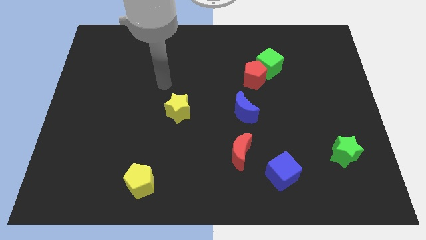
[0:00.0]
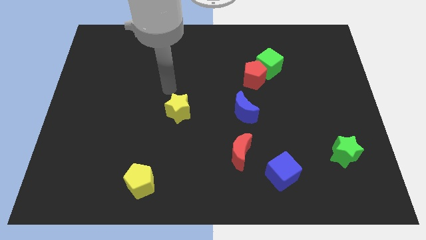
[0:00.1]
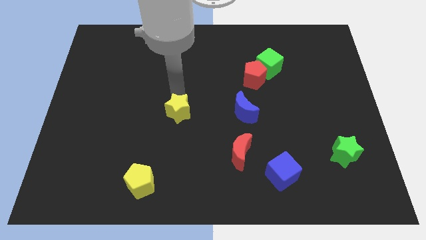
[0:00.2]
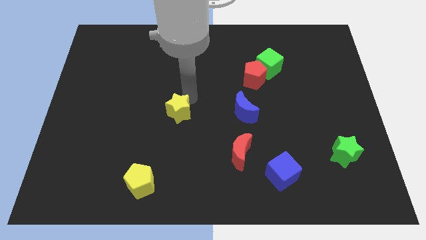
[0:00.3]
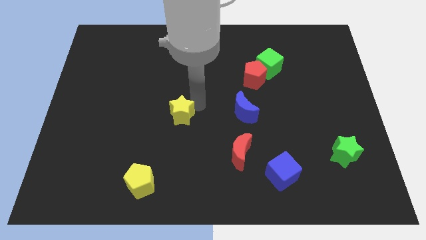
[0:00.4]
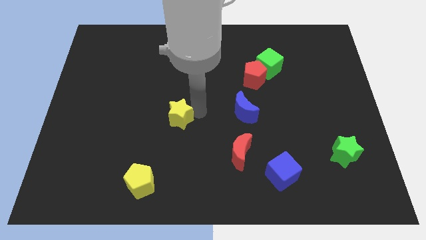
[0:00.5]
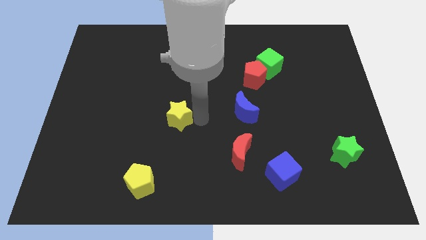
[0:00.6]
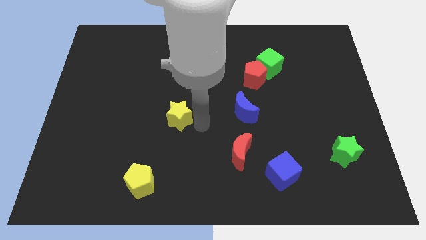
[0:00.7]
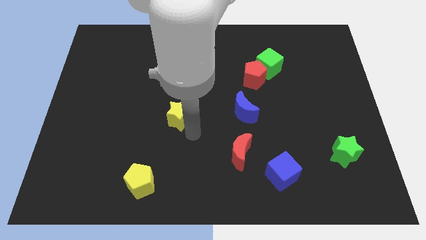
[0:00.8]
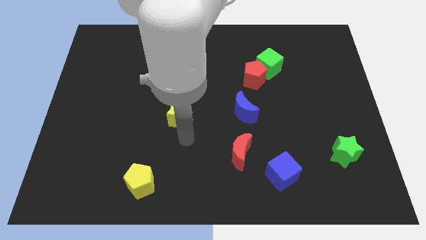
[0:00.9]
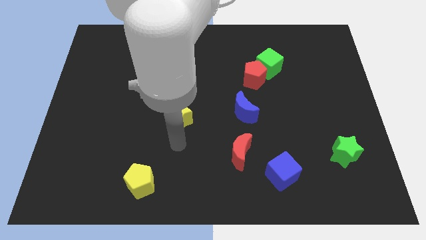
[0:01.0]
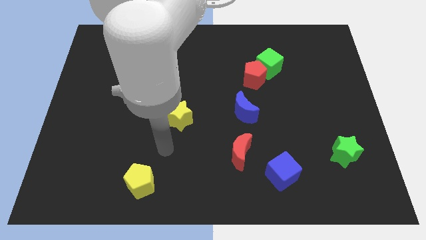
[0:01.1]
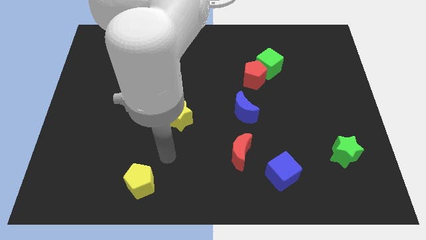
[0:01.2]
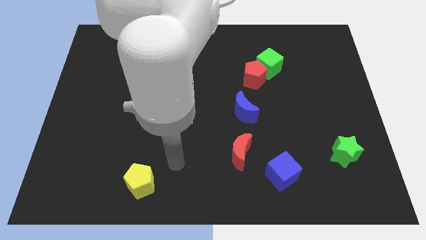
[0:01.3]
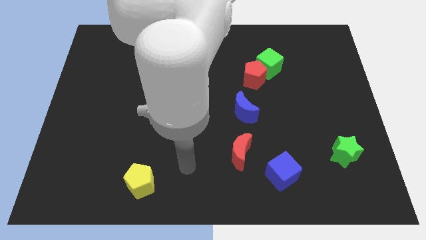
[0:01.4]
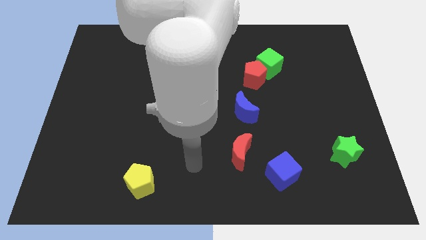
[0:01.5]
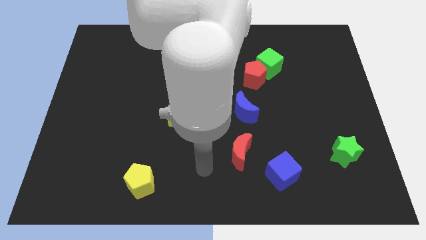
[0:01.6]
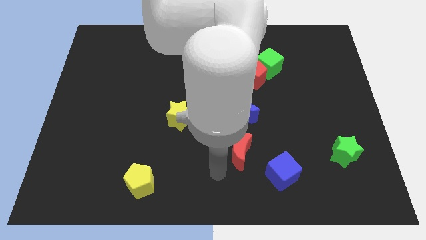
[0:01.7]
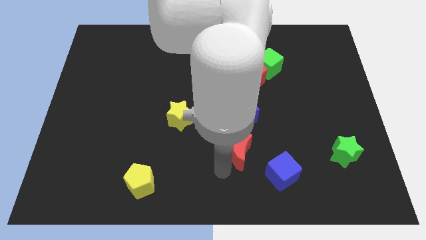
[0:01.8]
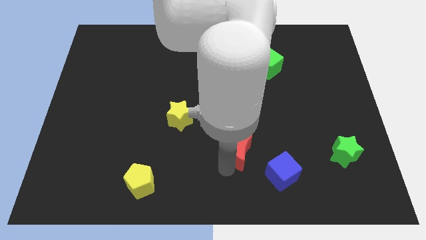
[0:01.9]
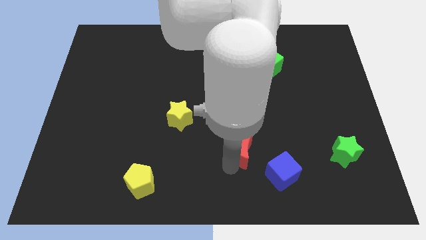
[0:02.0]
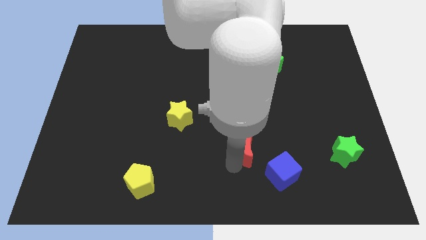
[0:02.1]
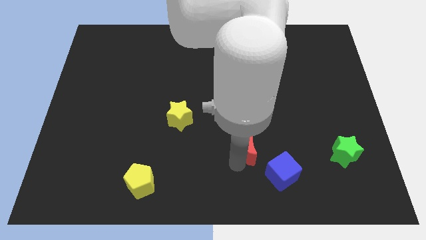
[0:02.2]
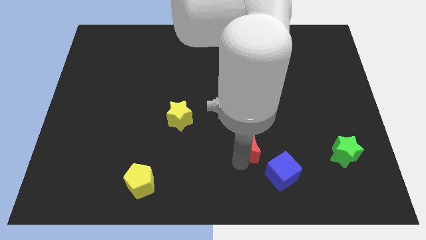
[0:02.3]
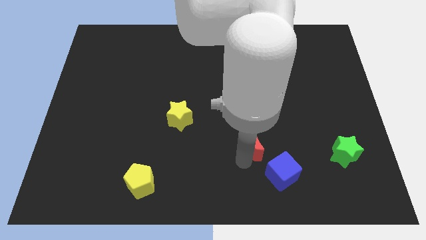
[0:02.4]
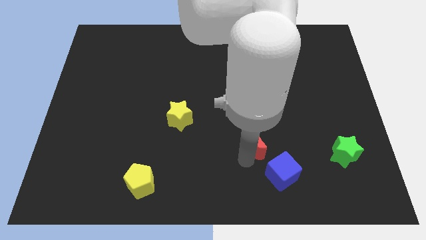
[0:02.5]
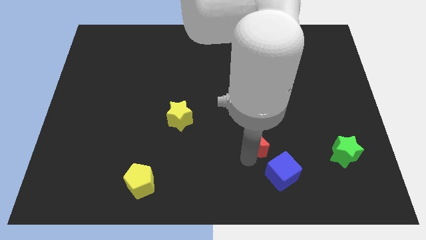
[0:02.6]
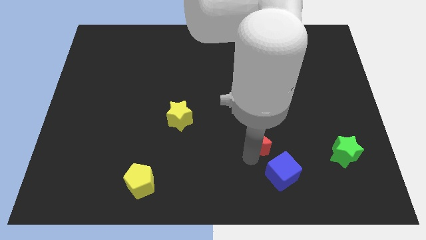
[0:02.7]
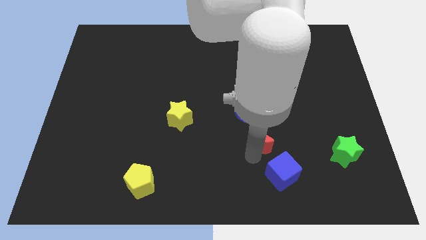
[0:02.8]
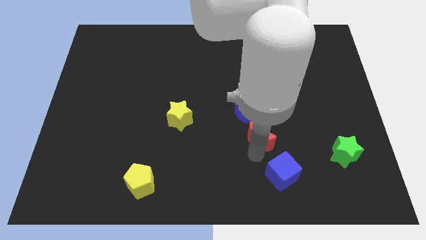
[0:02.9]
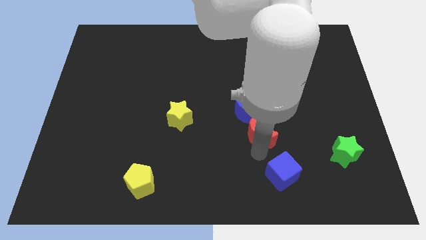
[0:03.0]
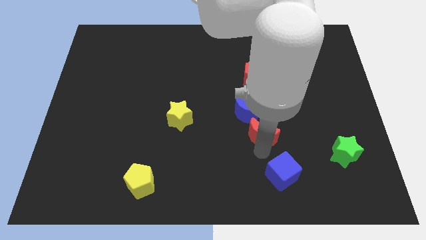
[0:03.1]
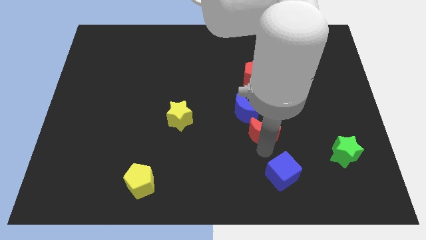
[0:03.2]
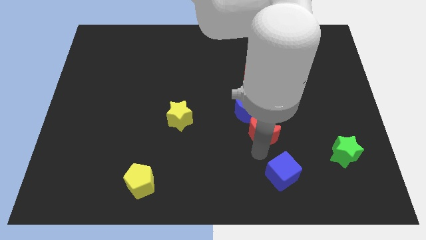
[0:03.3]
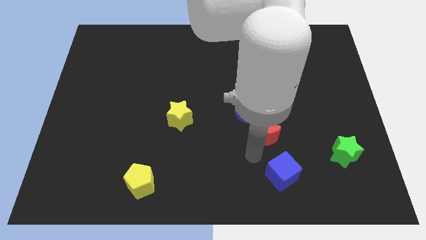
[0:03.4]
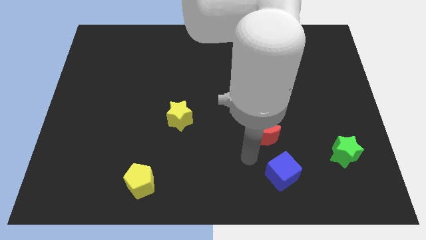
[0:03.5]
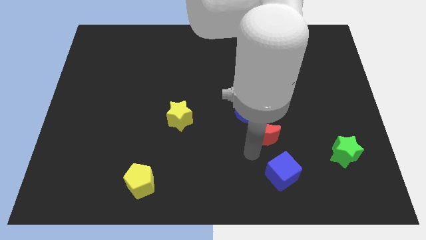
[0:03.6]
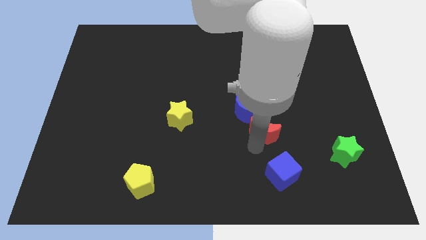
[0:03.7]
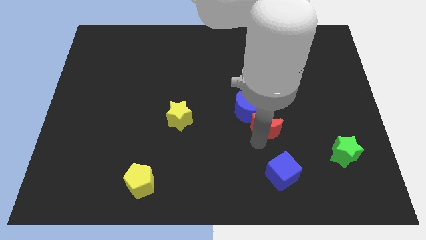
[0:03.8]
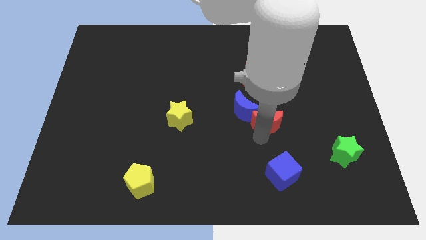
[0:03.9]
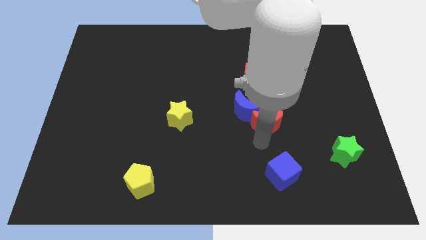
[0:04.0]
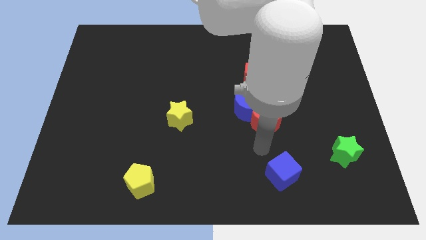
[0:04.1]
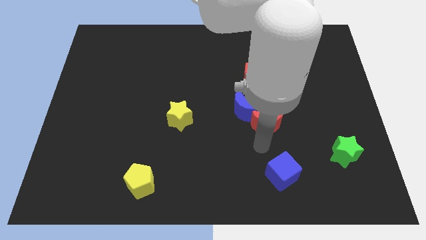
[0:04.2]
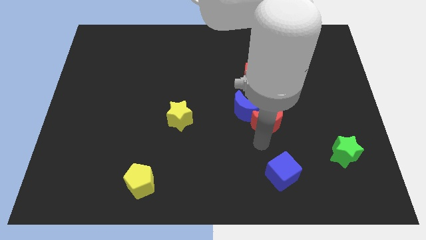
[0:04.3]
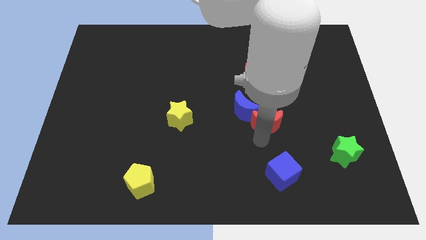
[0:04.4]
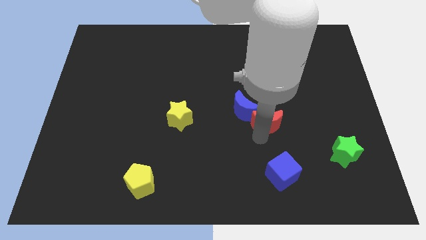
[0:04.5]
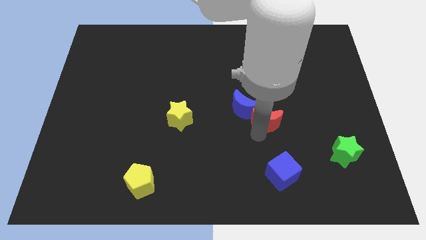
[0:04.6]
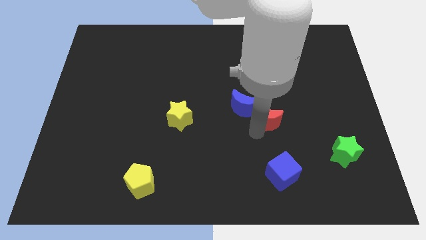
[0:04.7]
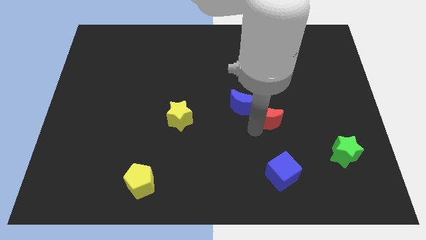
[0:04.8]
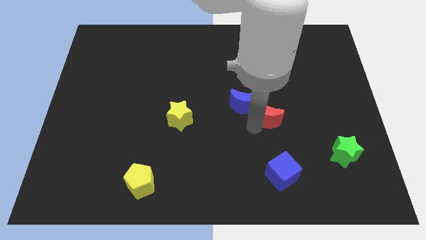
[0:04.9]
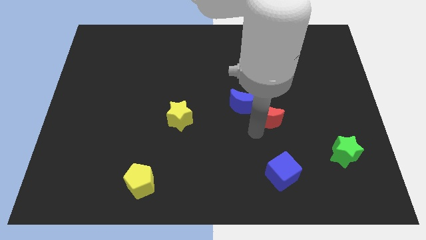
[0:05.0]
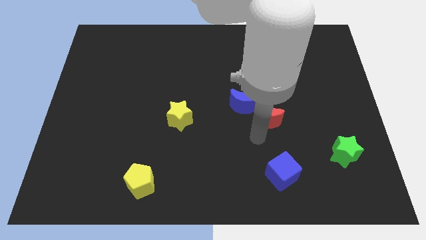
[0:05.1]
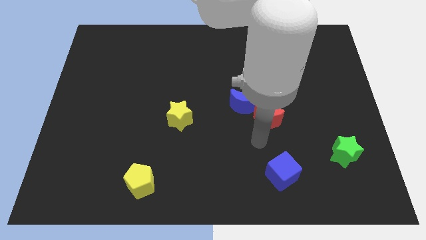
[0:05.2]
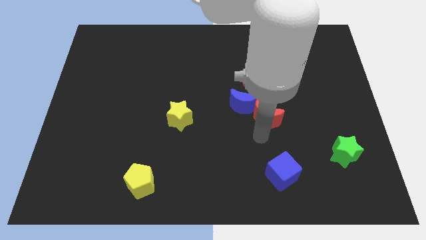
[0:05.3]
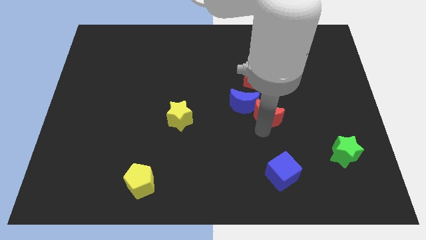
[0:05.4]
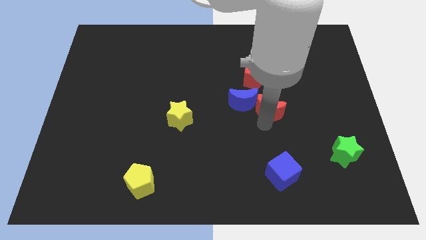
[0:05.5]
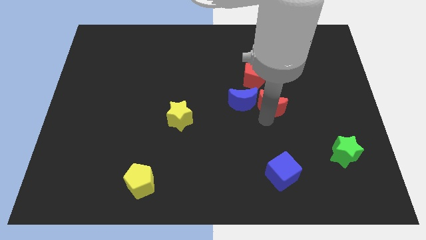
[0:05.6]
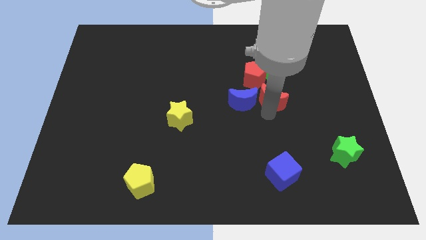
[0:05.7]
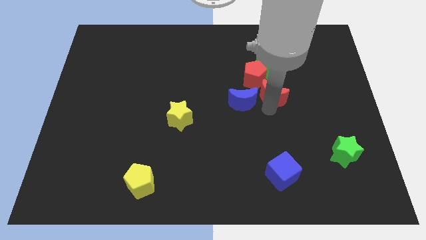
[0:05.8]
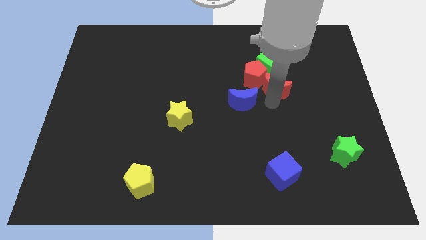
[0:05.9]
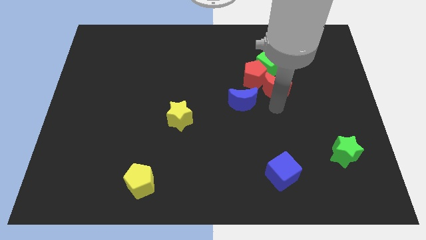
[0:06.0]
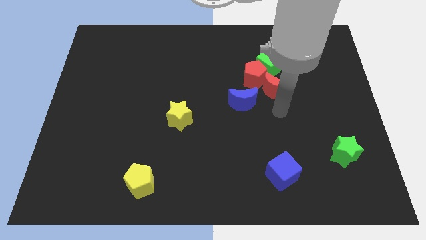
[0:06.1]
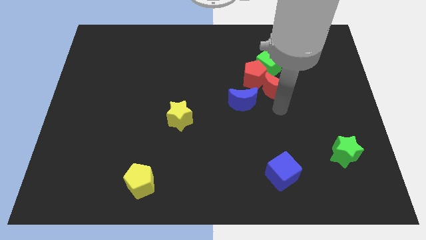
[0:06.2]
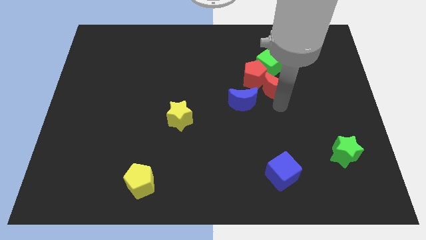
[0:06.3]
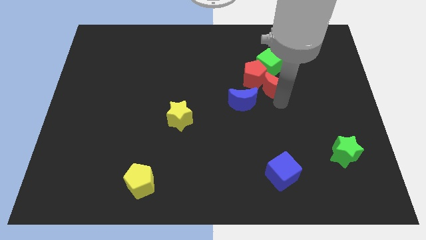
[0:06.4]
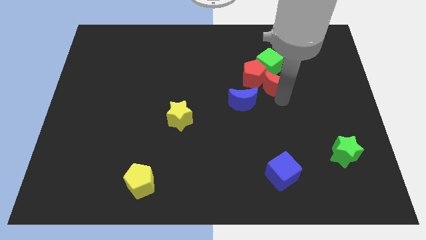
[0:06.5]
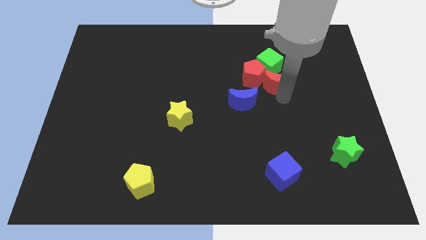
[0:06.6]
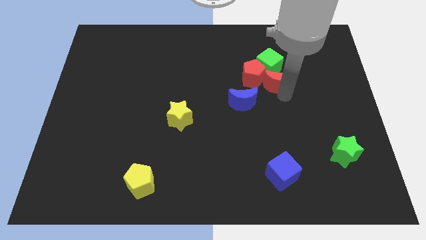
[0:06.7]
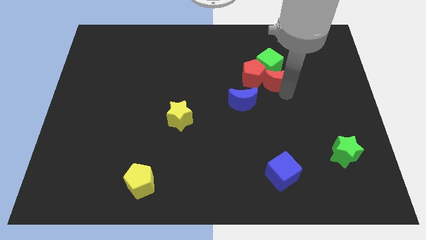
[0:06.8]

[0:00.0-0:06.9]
move the red moon next to the green cube

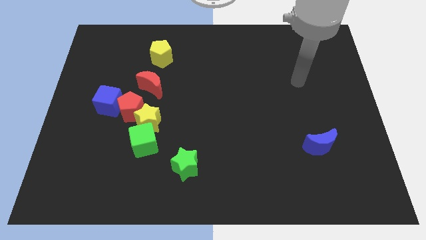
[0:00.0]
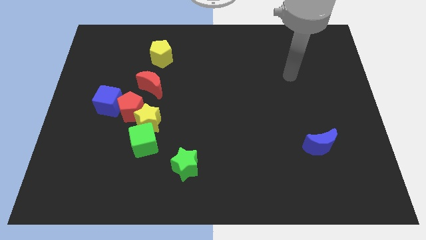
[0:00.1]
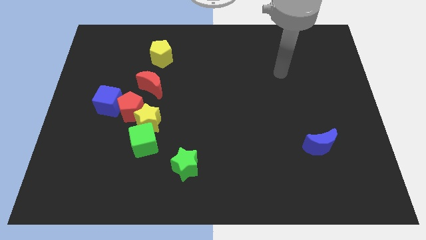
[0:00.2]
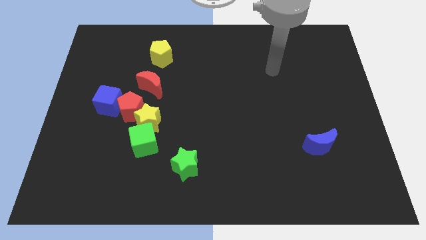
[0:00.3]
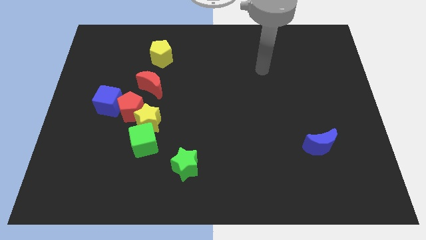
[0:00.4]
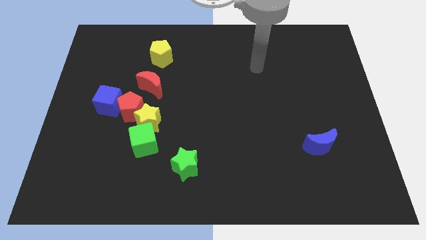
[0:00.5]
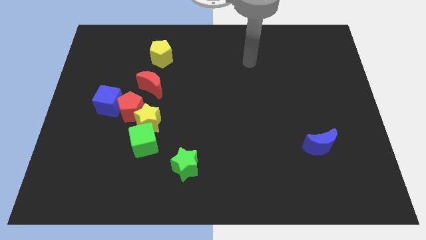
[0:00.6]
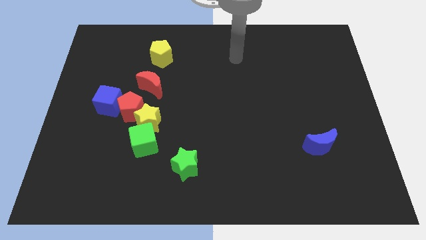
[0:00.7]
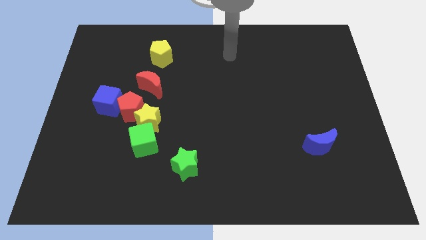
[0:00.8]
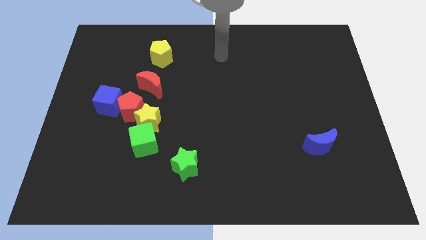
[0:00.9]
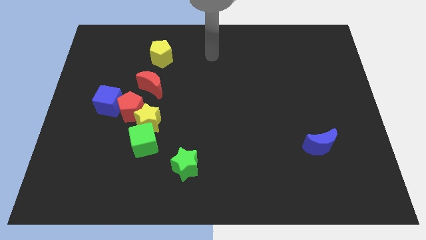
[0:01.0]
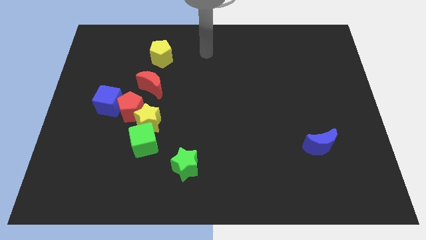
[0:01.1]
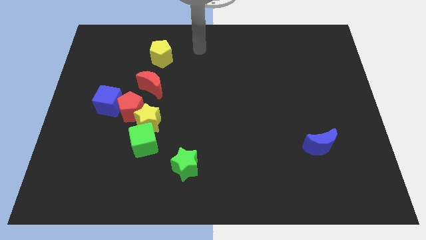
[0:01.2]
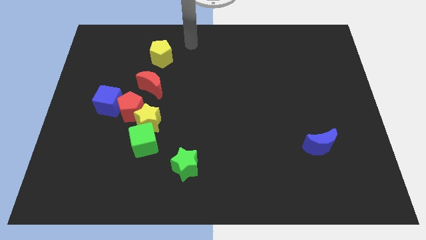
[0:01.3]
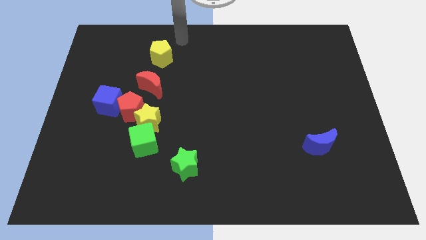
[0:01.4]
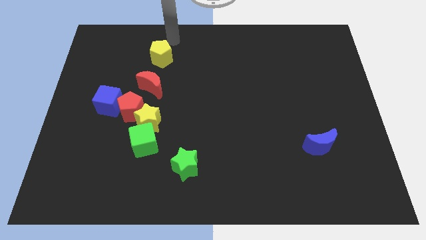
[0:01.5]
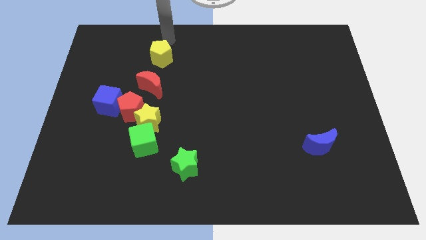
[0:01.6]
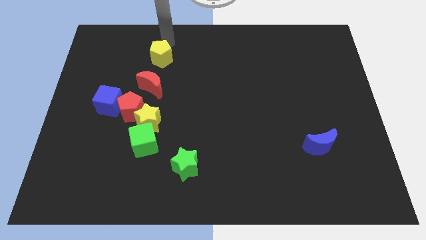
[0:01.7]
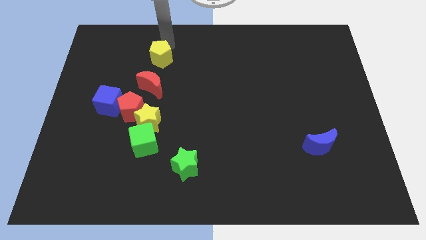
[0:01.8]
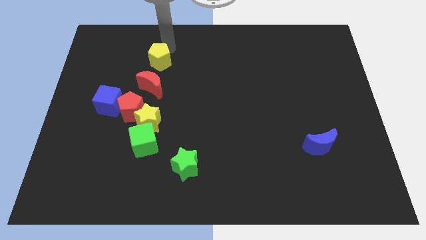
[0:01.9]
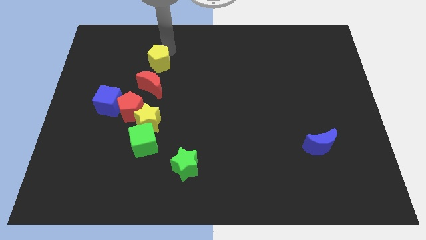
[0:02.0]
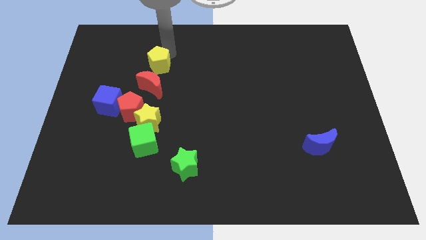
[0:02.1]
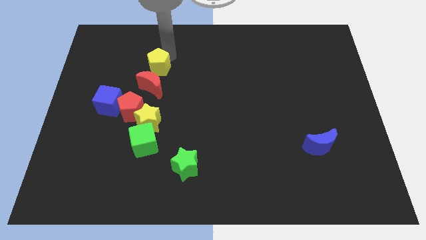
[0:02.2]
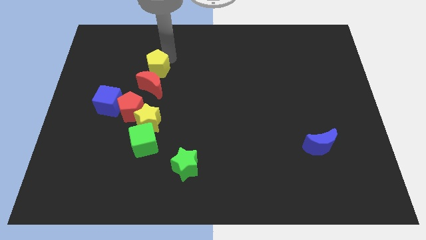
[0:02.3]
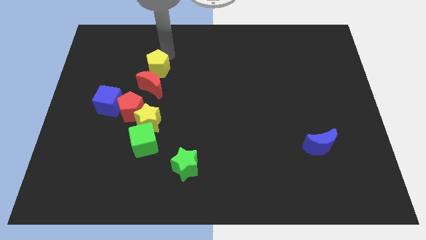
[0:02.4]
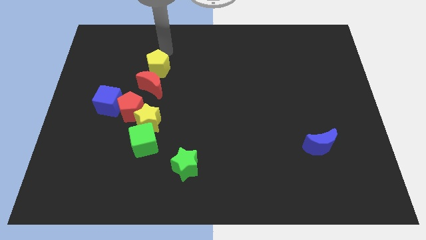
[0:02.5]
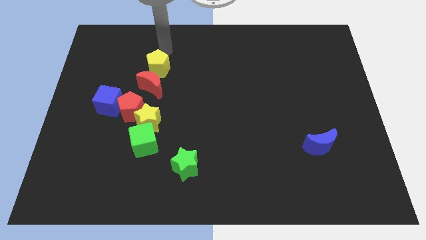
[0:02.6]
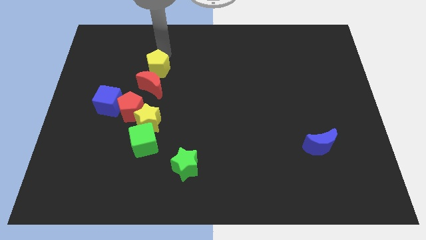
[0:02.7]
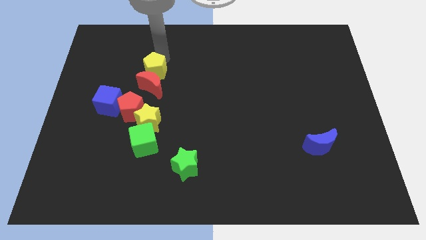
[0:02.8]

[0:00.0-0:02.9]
put the yellow pentagon towards the red moon
